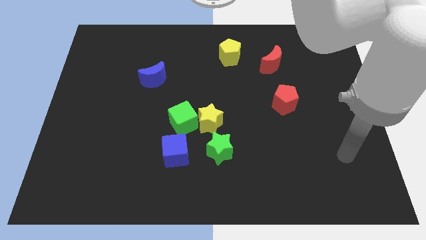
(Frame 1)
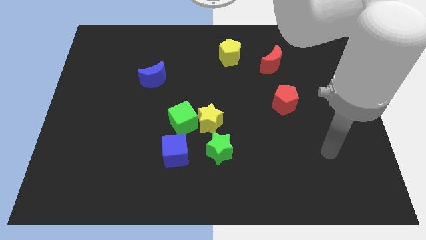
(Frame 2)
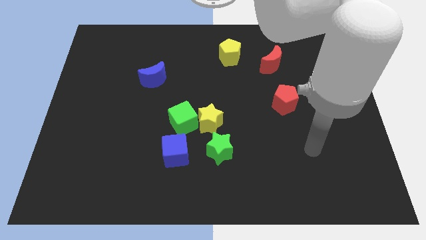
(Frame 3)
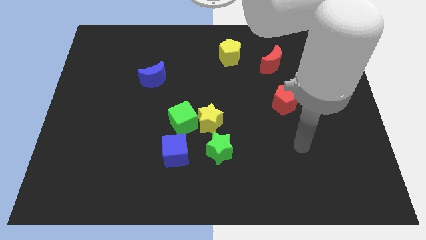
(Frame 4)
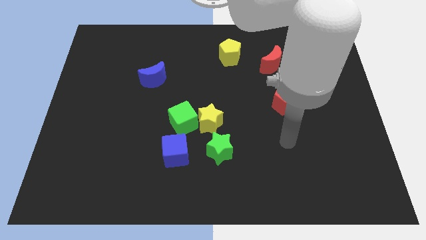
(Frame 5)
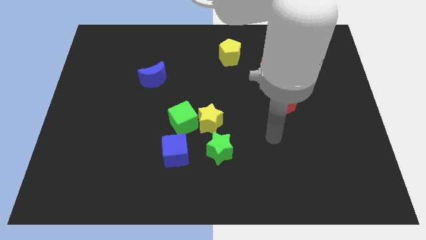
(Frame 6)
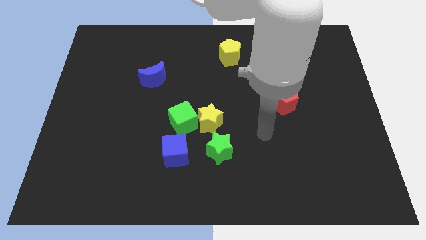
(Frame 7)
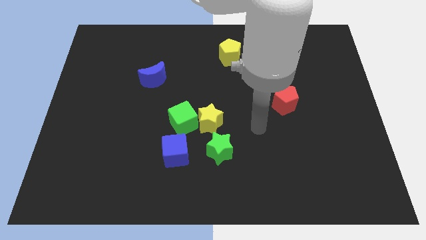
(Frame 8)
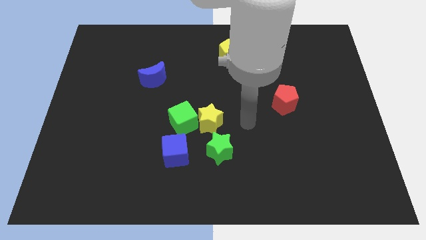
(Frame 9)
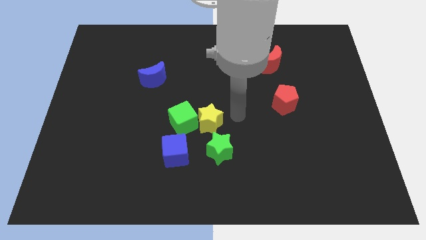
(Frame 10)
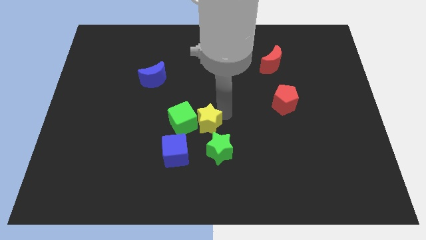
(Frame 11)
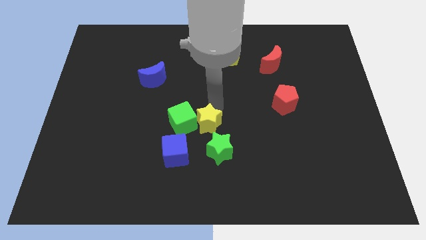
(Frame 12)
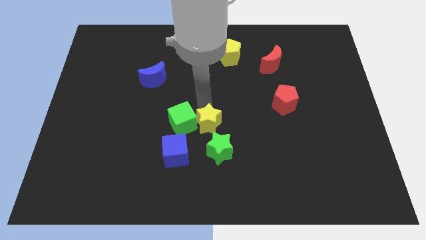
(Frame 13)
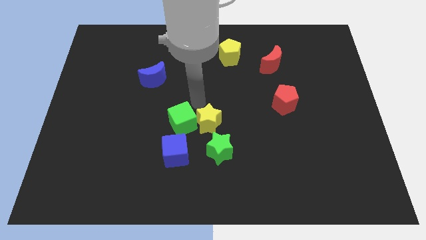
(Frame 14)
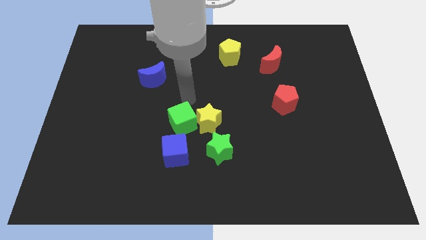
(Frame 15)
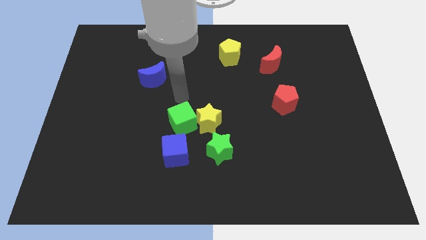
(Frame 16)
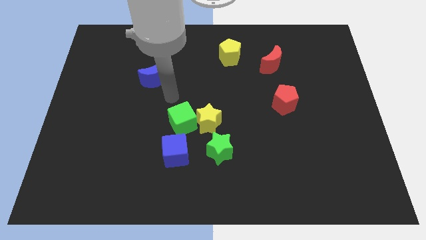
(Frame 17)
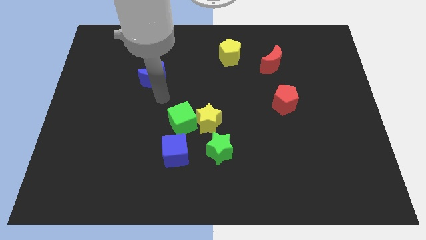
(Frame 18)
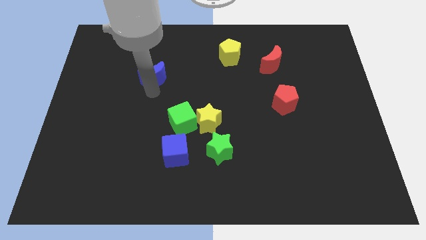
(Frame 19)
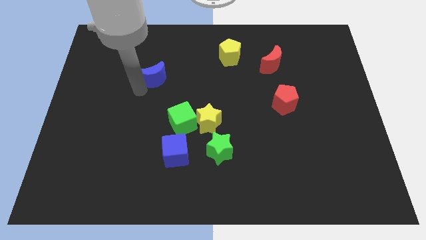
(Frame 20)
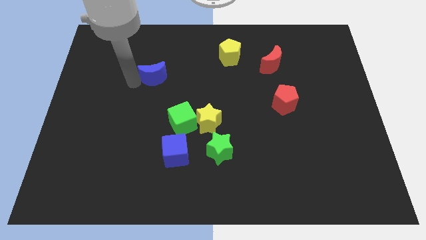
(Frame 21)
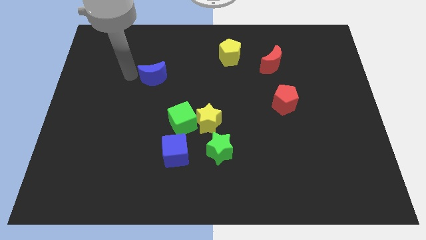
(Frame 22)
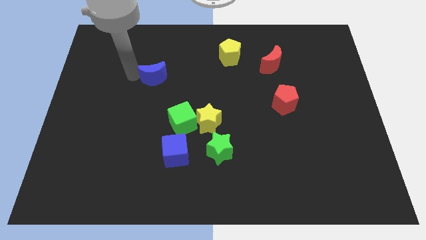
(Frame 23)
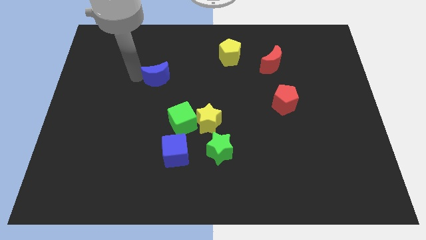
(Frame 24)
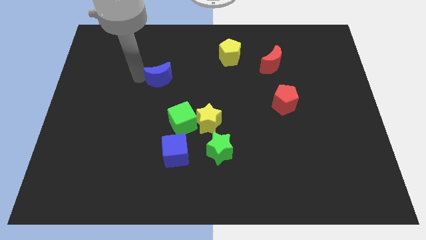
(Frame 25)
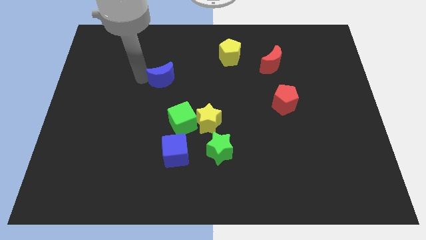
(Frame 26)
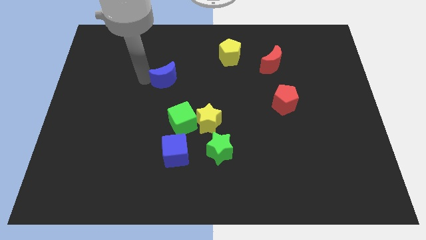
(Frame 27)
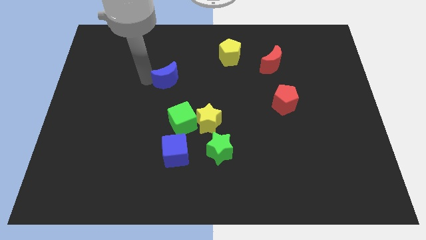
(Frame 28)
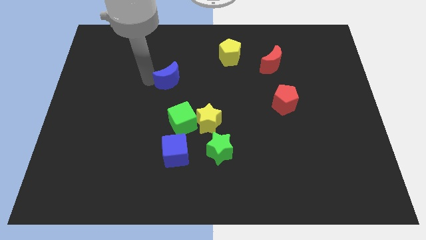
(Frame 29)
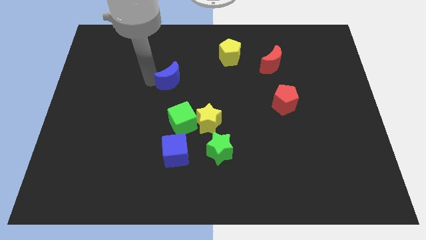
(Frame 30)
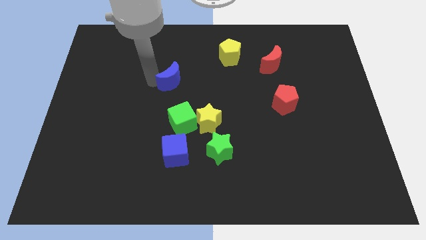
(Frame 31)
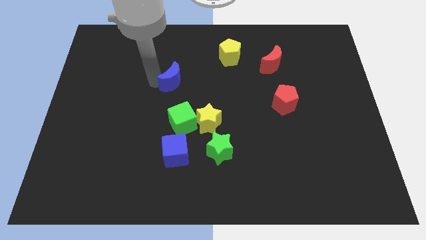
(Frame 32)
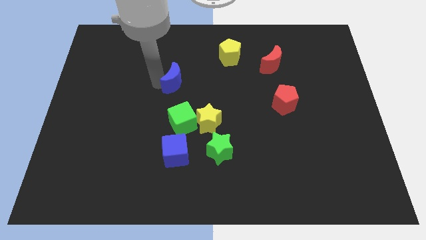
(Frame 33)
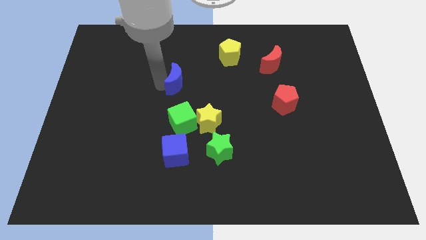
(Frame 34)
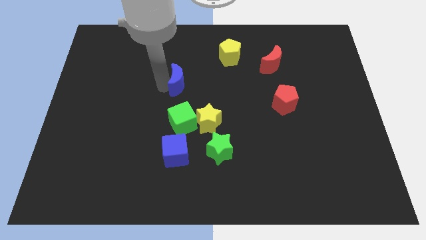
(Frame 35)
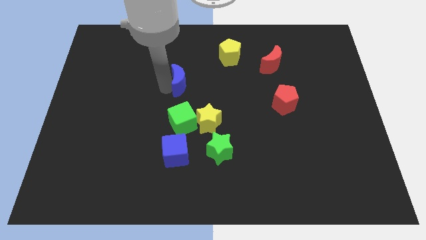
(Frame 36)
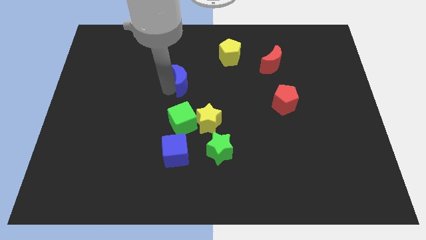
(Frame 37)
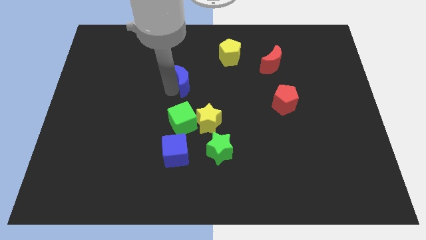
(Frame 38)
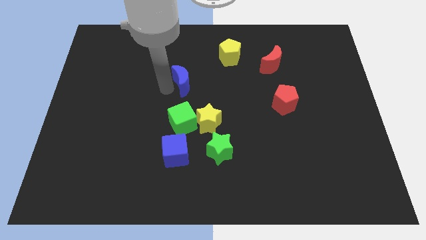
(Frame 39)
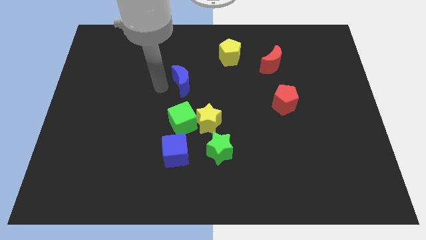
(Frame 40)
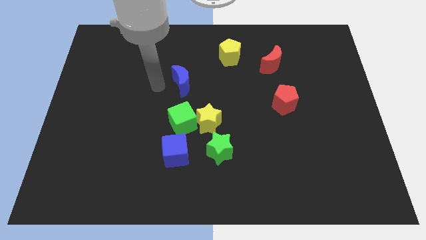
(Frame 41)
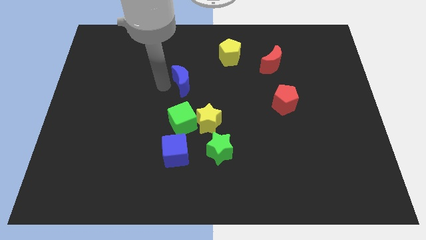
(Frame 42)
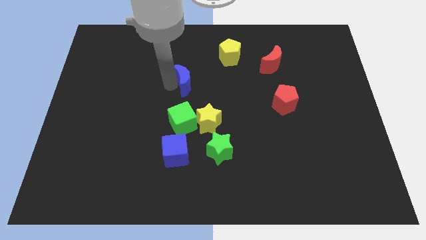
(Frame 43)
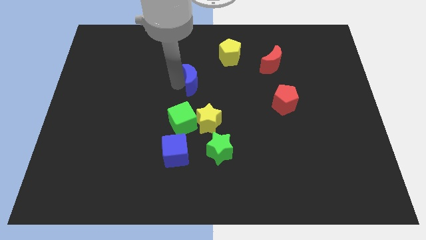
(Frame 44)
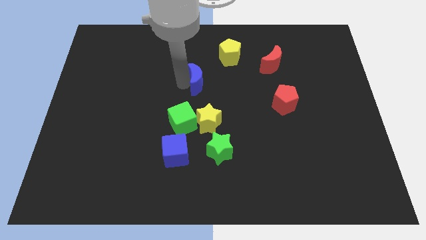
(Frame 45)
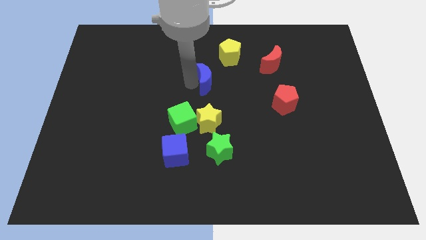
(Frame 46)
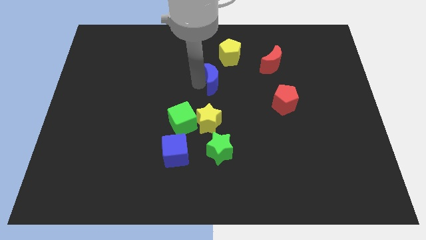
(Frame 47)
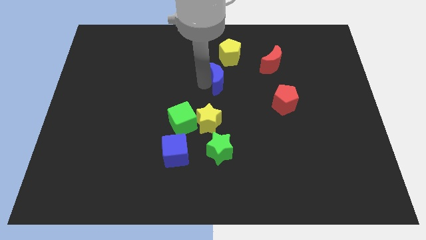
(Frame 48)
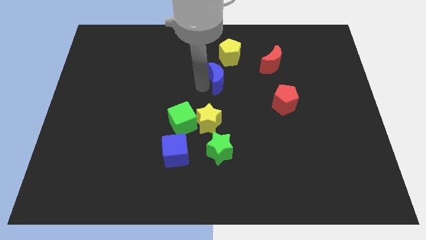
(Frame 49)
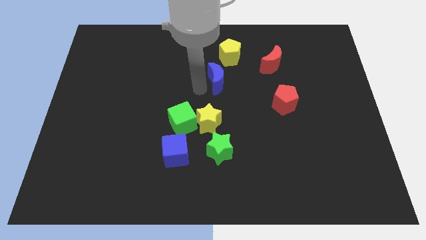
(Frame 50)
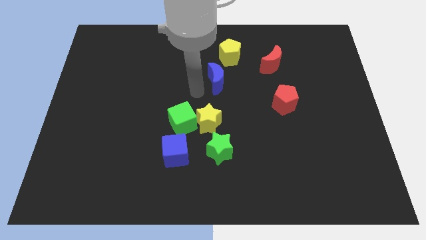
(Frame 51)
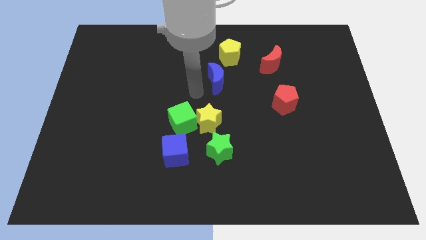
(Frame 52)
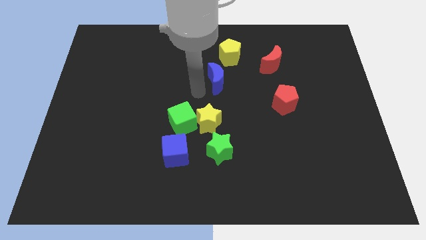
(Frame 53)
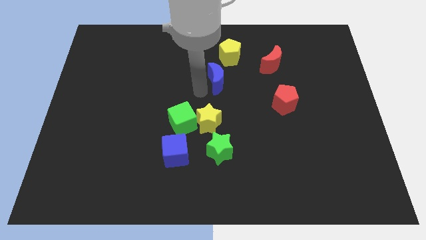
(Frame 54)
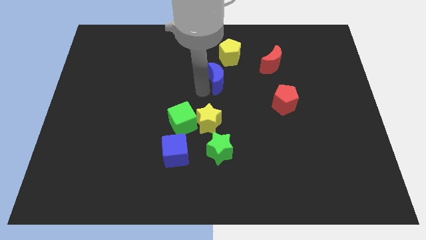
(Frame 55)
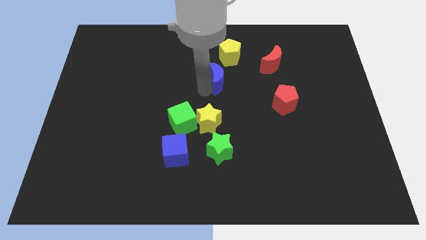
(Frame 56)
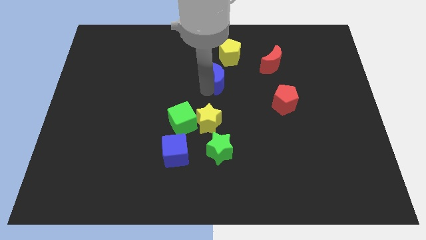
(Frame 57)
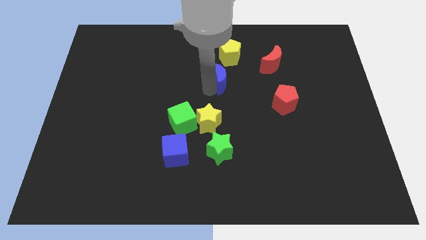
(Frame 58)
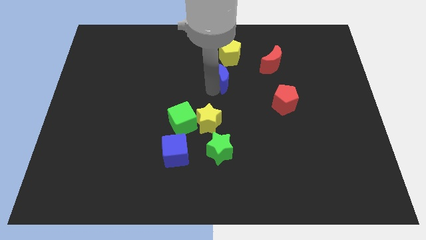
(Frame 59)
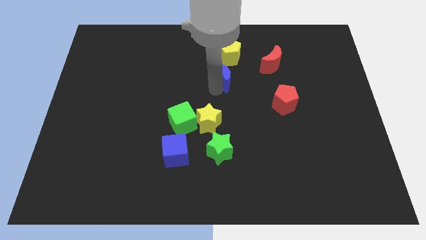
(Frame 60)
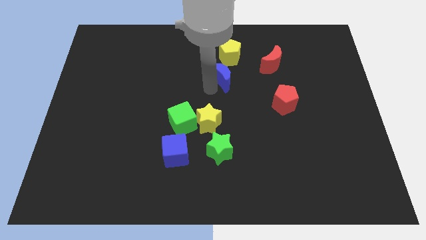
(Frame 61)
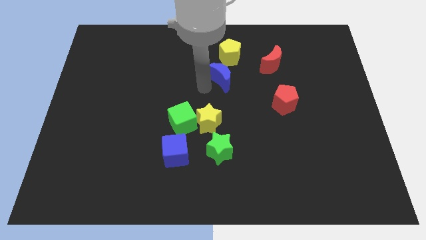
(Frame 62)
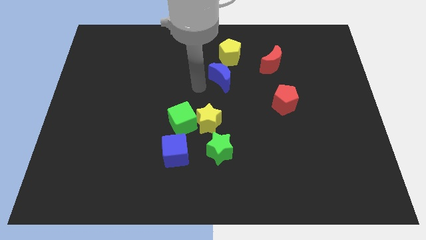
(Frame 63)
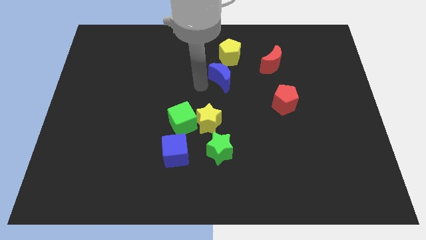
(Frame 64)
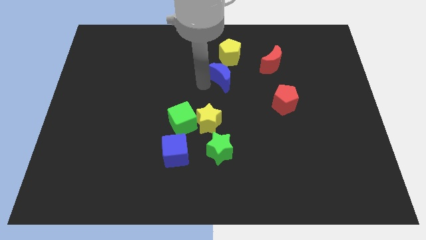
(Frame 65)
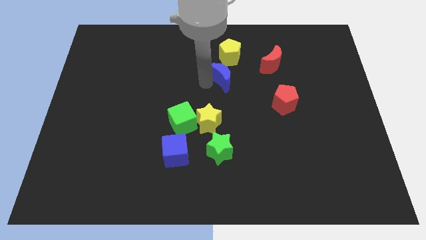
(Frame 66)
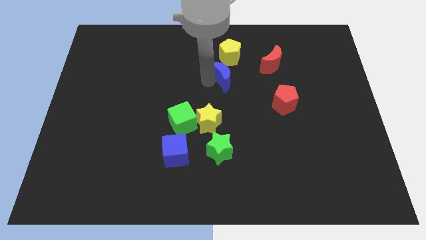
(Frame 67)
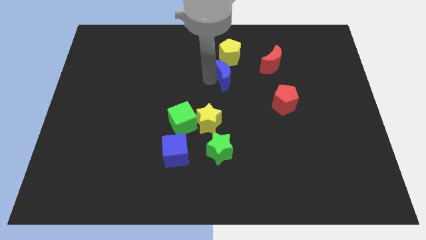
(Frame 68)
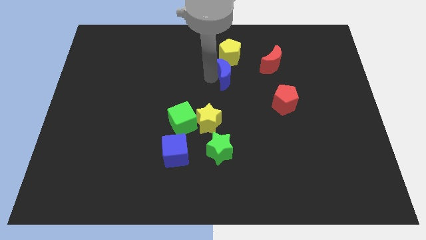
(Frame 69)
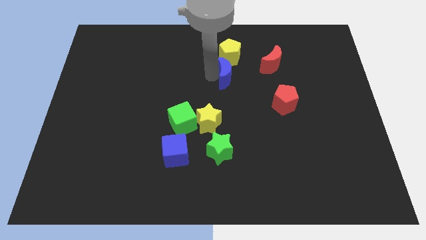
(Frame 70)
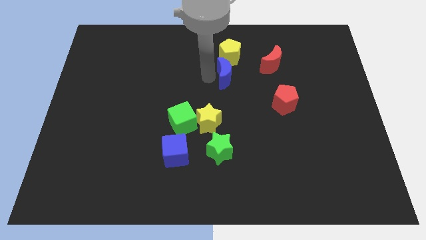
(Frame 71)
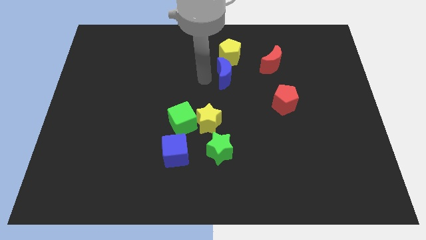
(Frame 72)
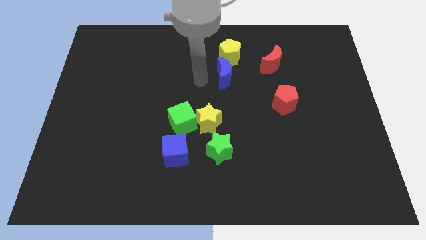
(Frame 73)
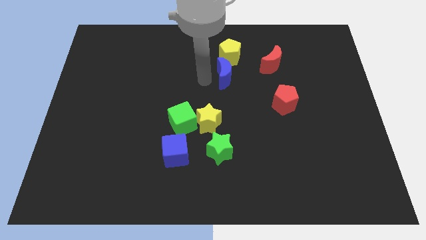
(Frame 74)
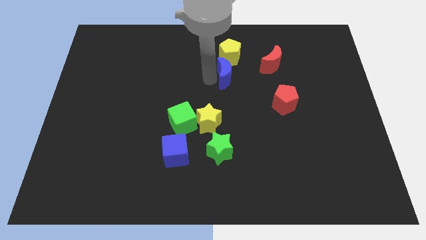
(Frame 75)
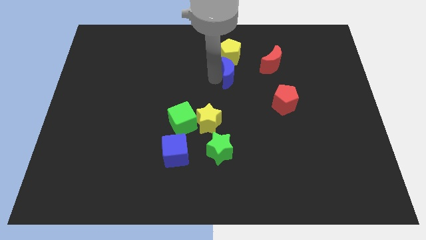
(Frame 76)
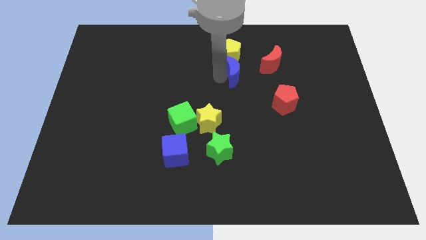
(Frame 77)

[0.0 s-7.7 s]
push the blue moon right

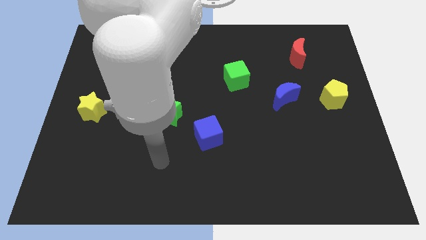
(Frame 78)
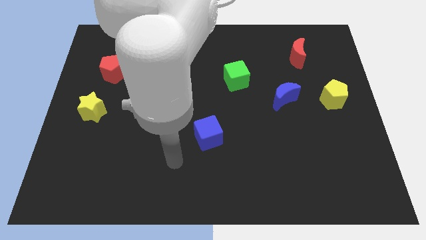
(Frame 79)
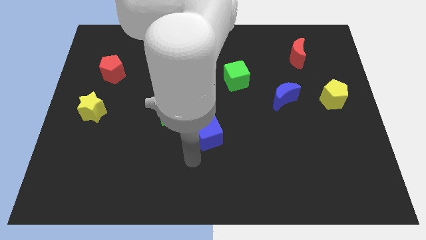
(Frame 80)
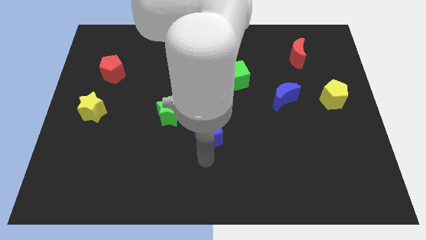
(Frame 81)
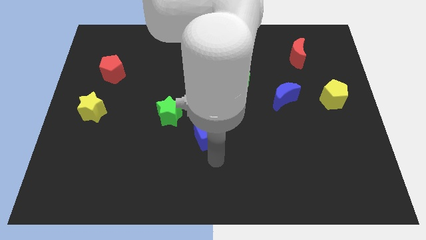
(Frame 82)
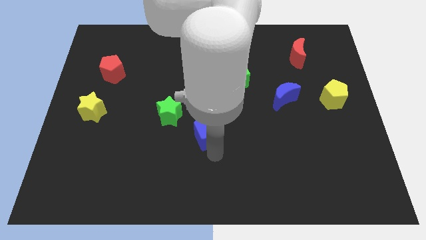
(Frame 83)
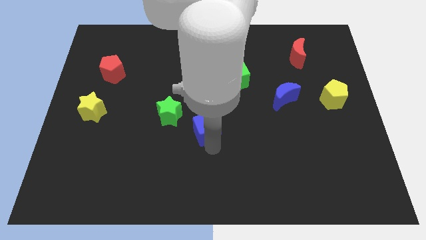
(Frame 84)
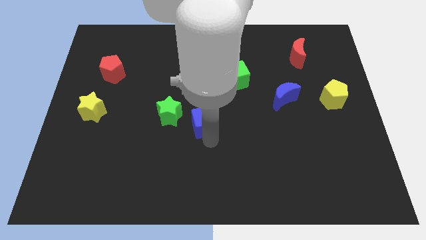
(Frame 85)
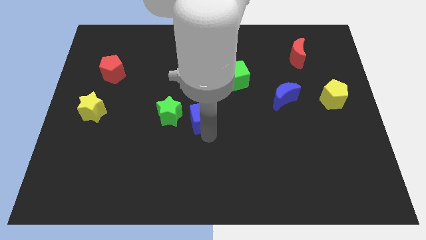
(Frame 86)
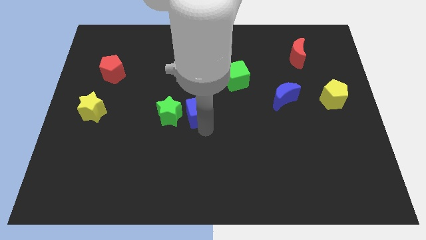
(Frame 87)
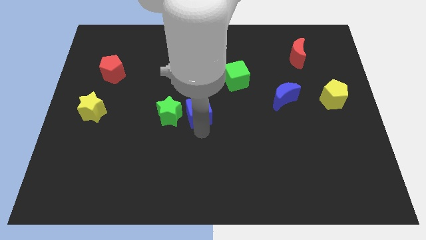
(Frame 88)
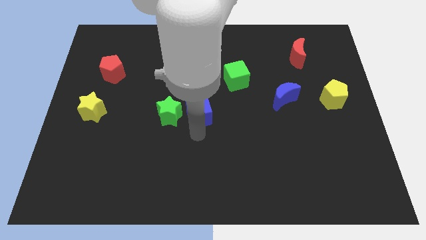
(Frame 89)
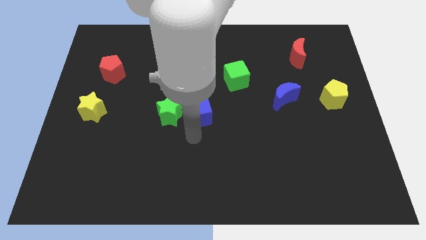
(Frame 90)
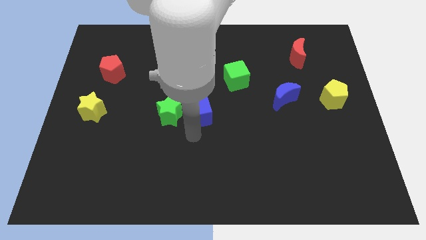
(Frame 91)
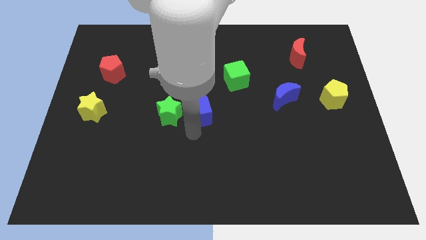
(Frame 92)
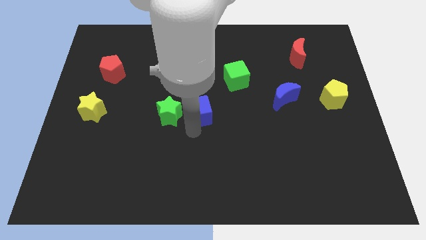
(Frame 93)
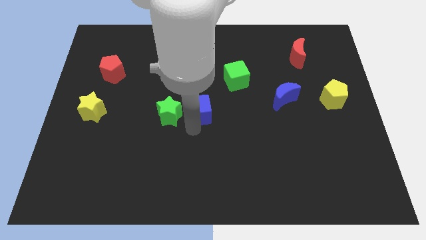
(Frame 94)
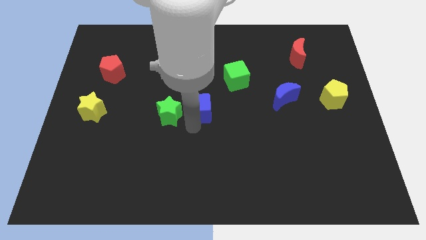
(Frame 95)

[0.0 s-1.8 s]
slightly push the blue cube up
